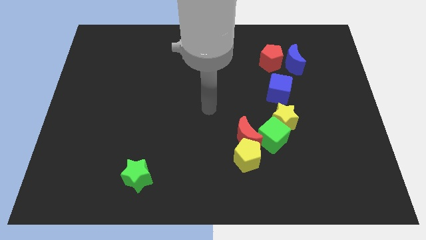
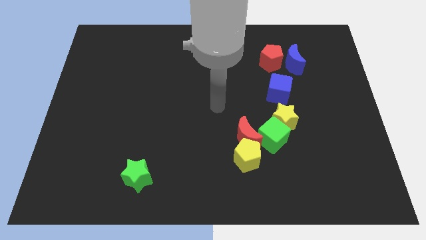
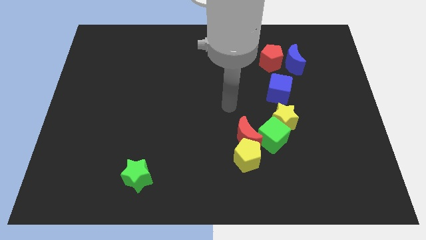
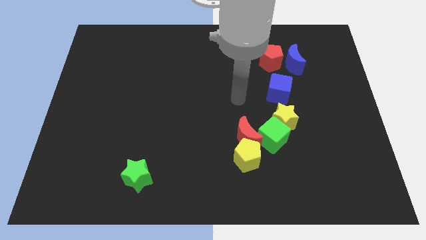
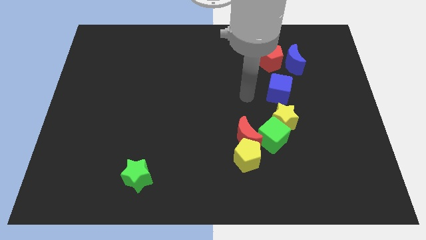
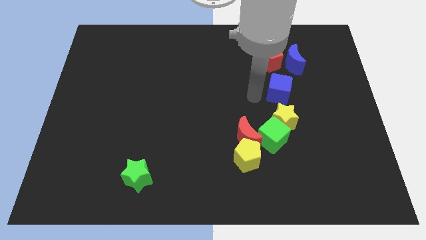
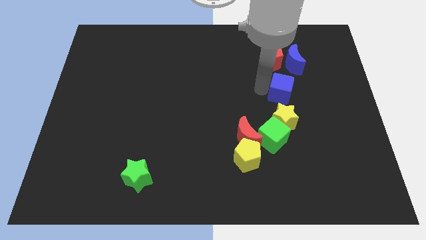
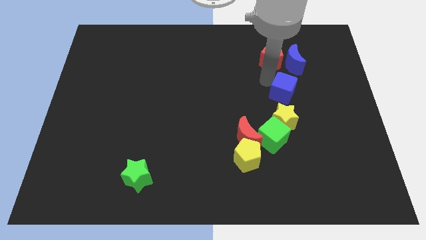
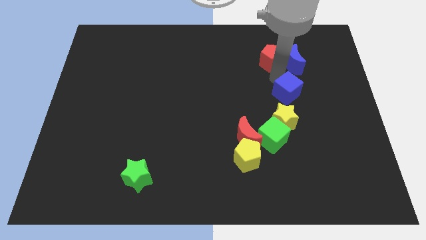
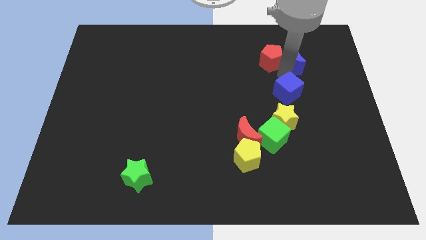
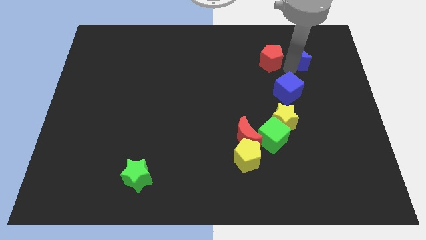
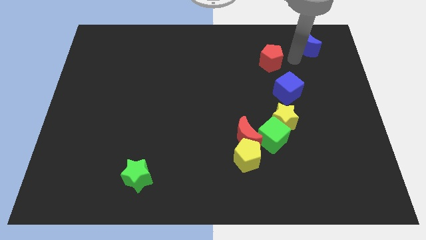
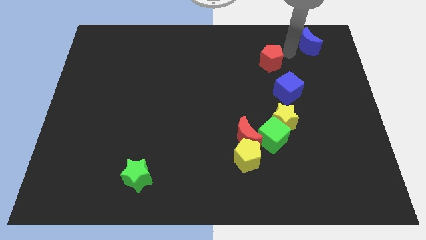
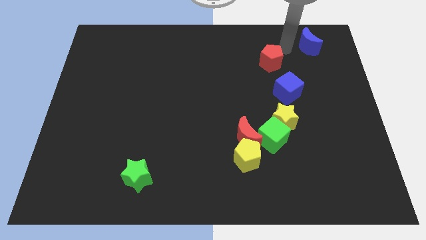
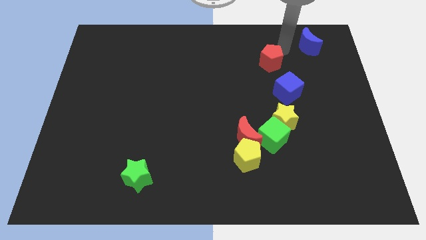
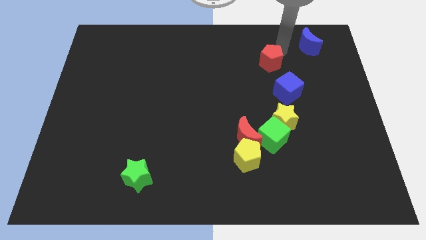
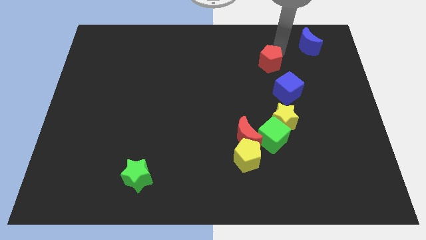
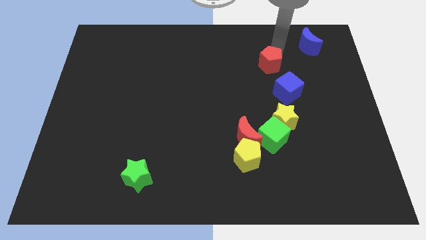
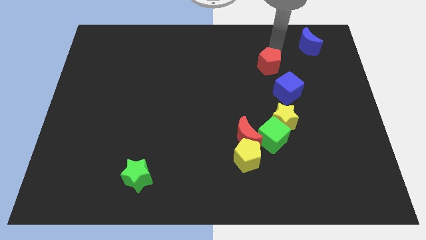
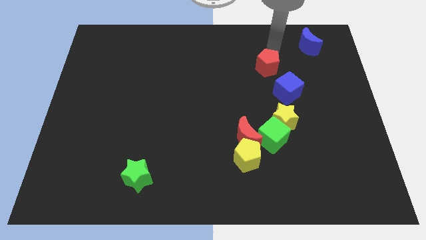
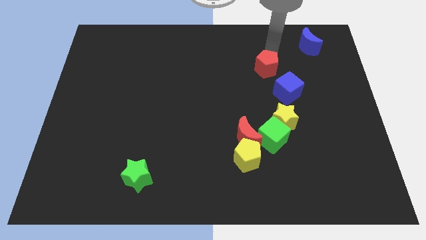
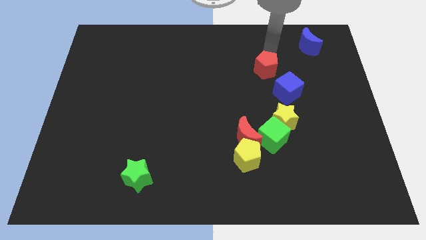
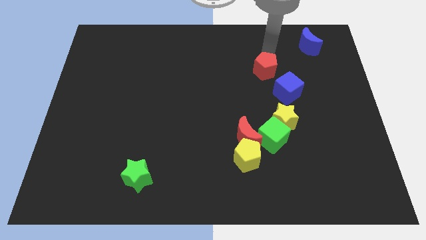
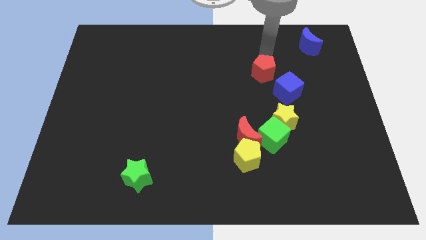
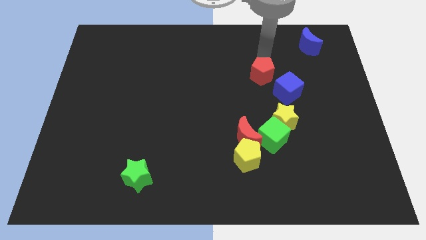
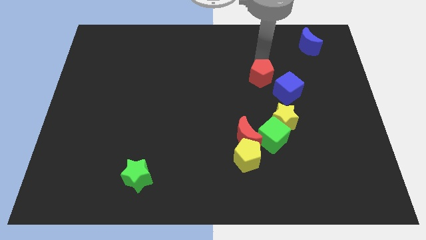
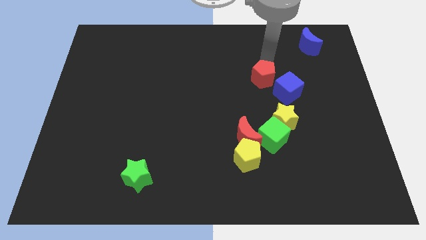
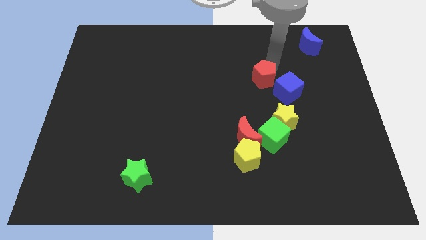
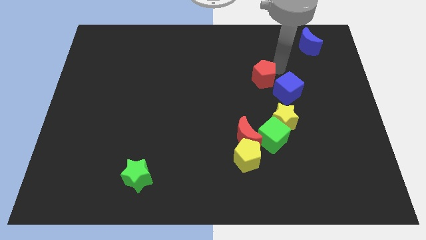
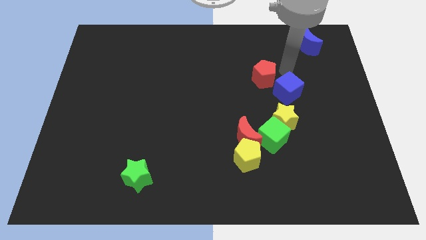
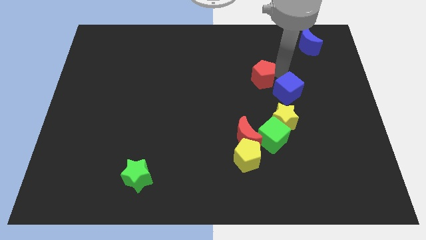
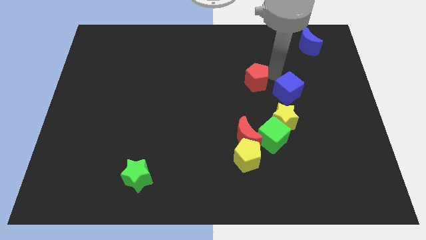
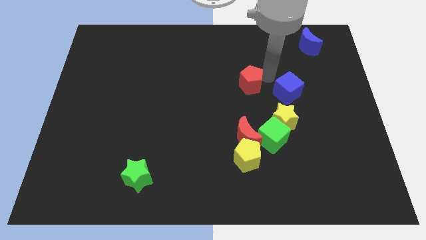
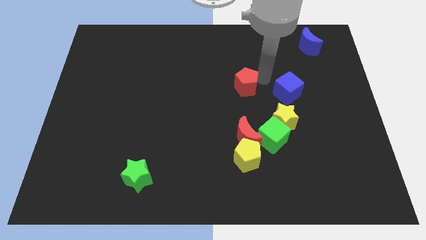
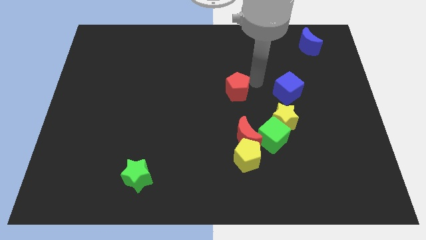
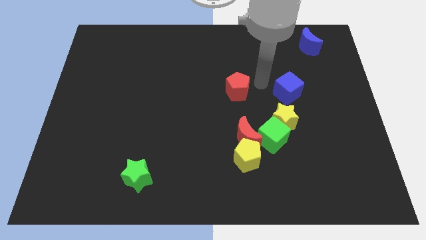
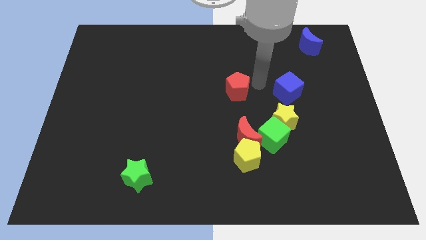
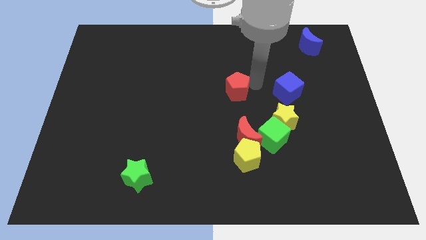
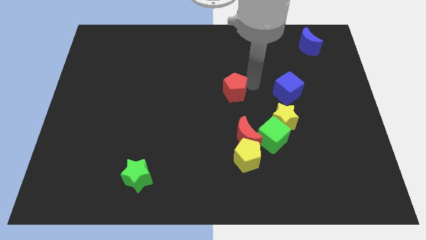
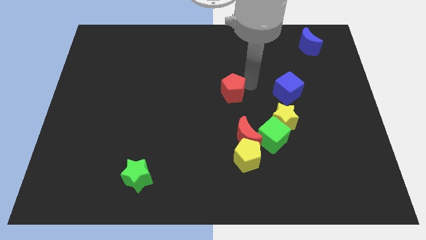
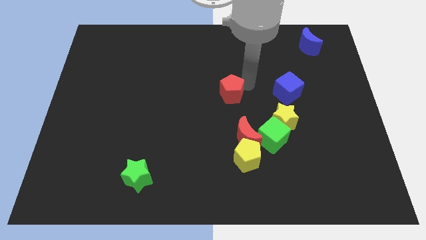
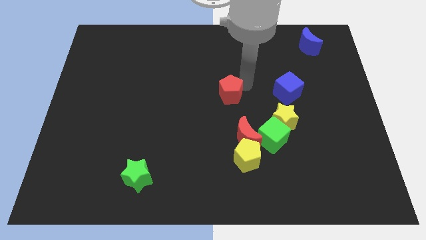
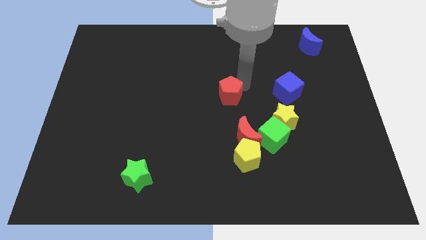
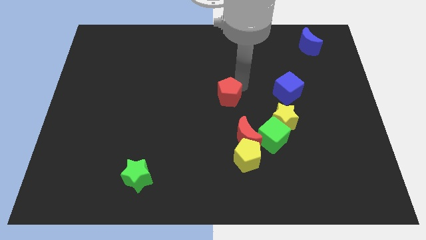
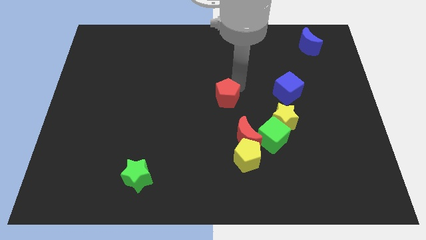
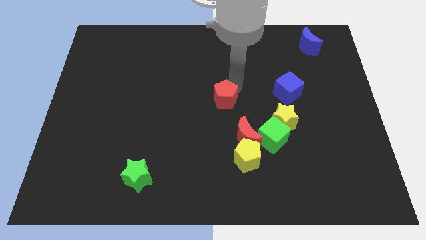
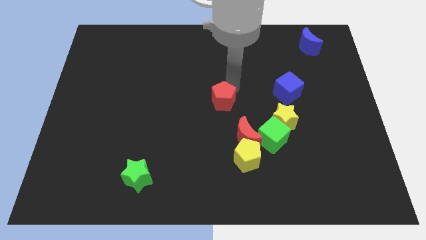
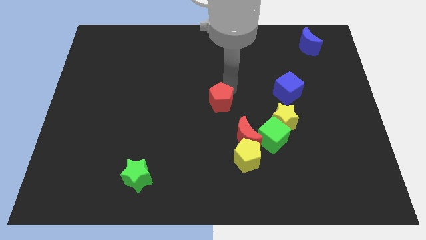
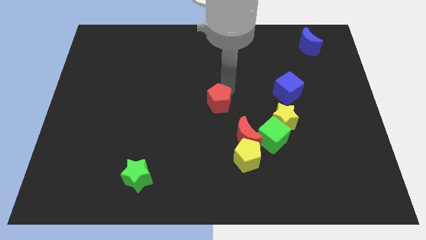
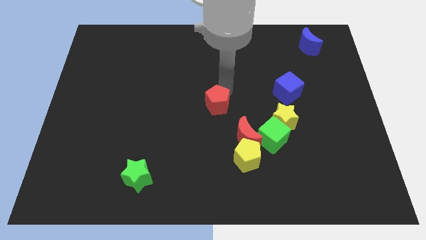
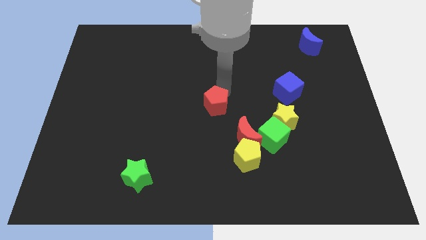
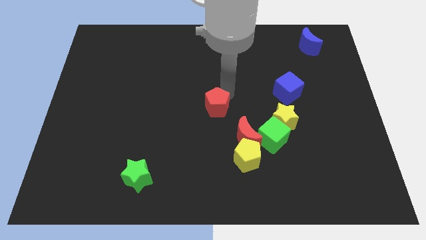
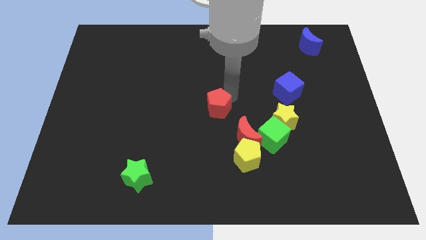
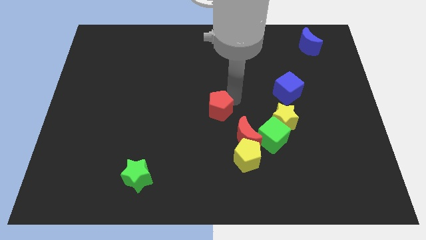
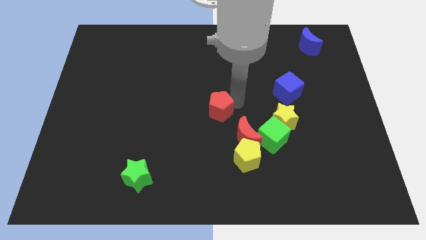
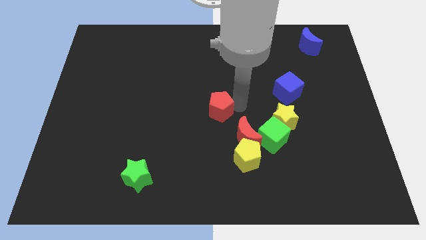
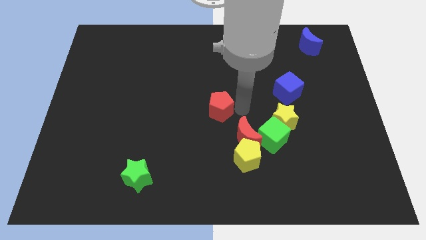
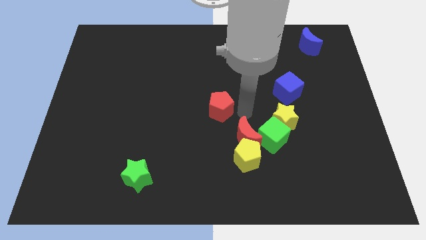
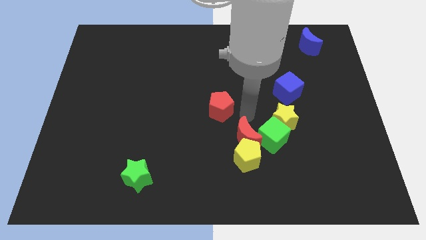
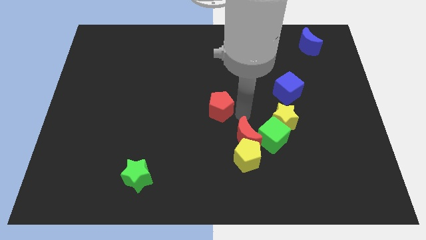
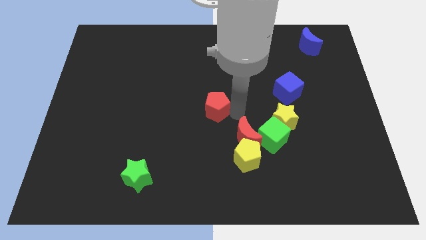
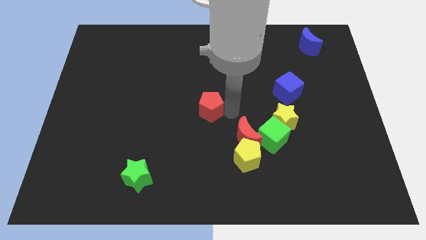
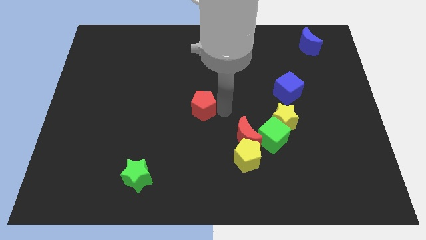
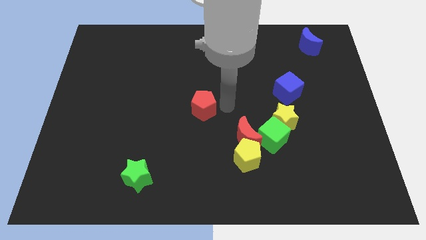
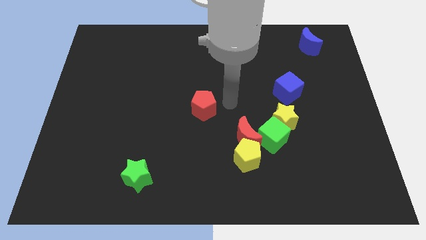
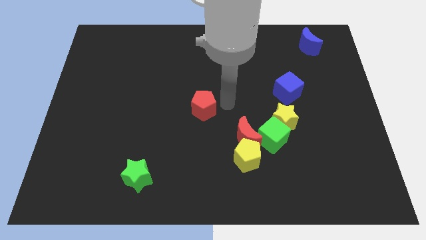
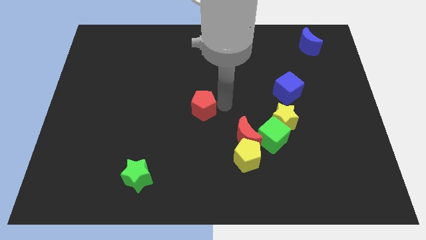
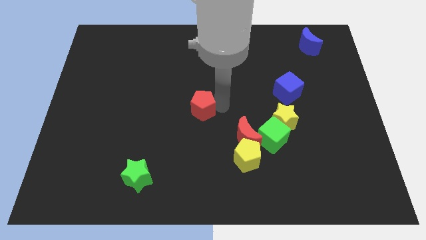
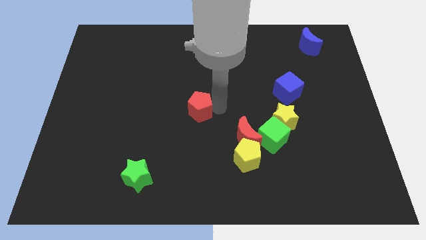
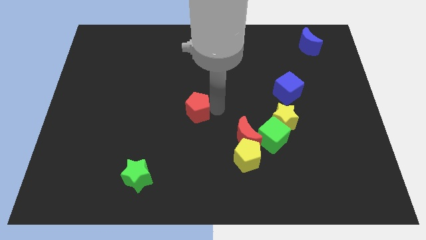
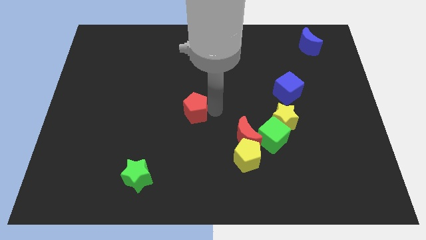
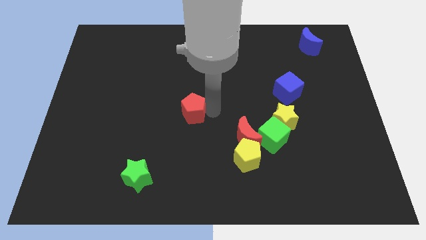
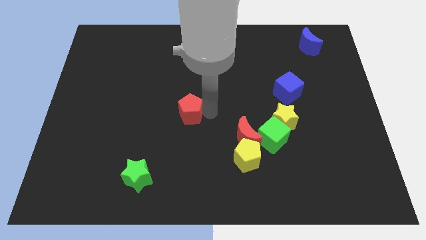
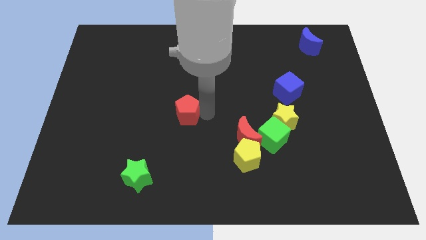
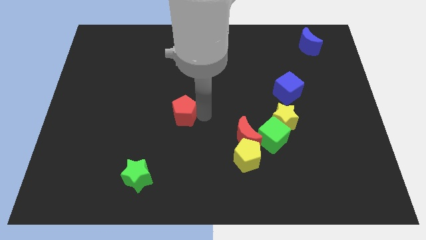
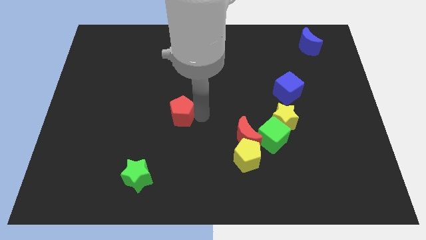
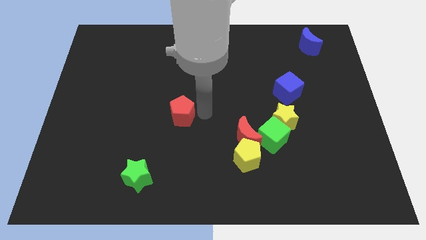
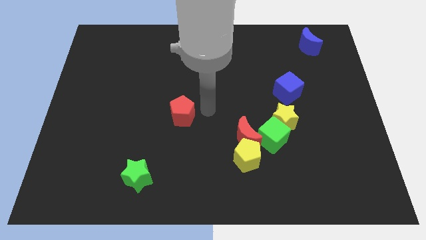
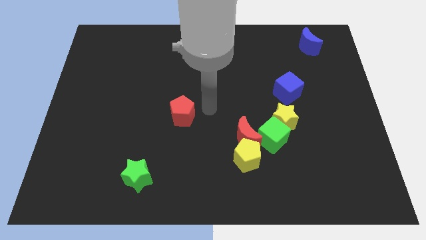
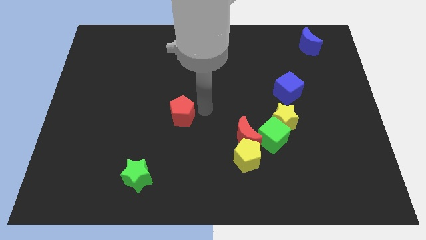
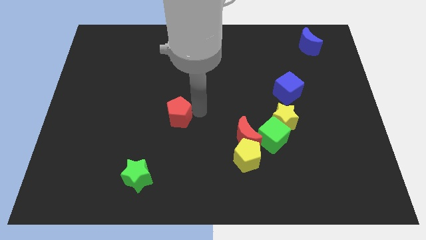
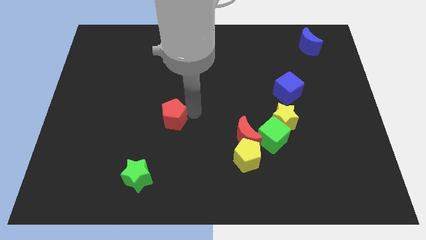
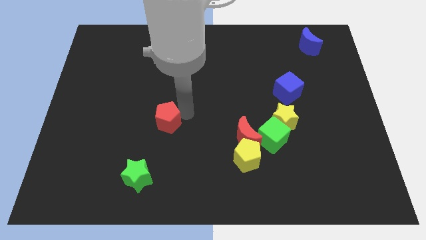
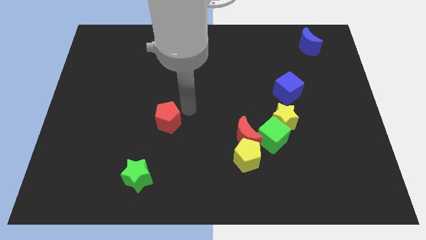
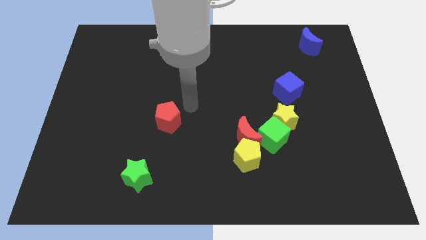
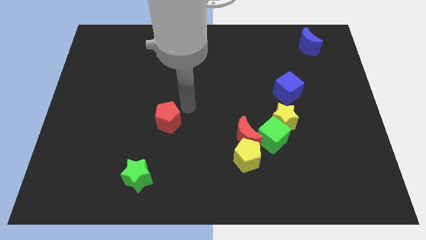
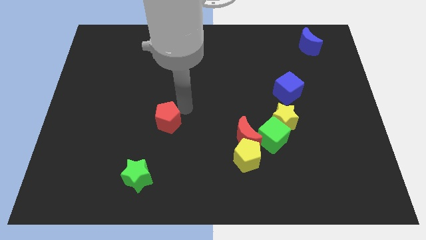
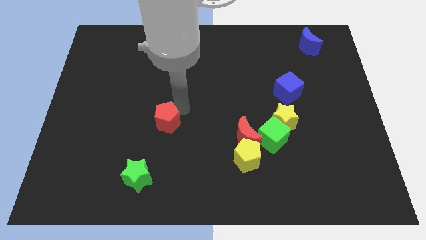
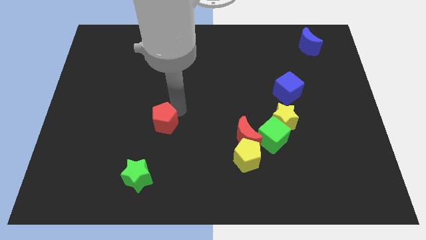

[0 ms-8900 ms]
move the red pentagon to the top side of the green star
